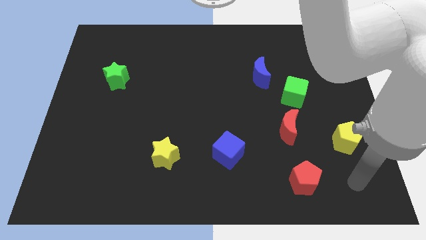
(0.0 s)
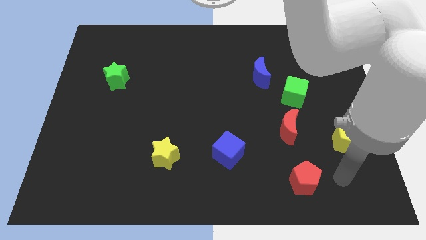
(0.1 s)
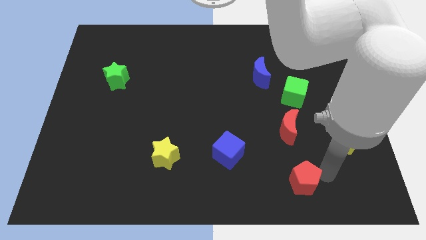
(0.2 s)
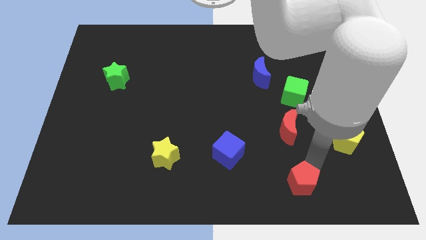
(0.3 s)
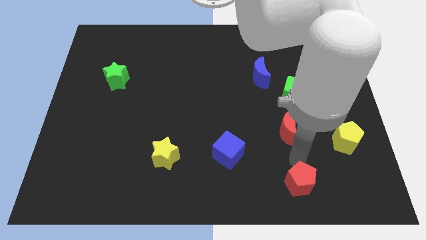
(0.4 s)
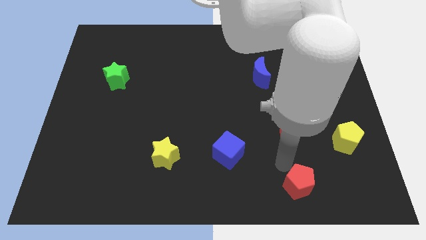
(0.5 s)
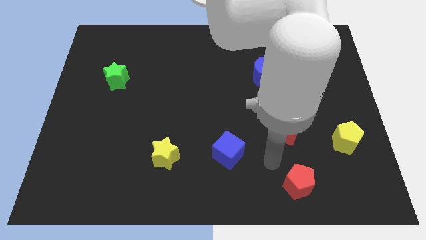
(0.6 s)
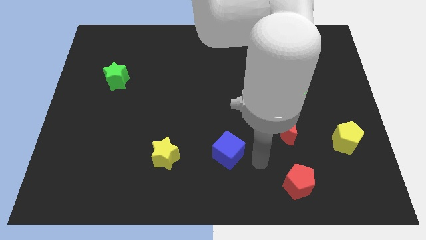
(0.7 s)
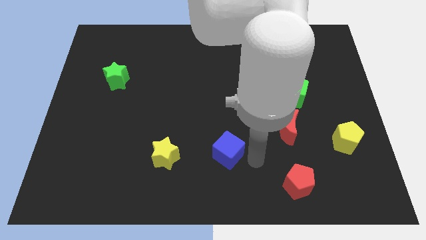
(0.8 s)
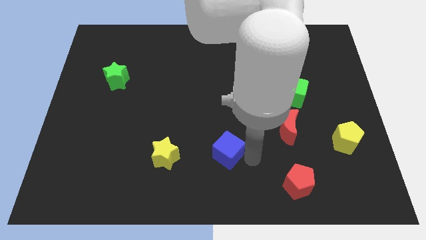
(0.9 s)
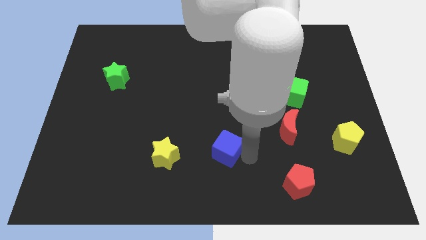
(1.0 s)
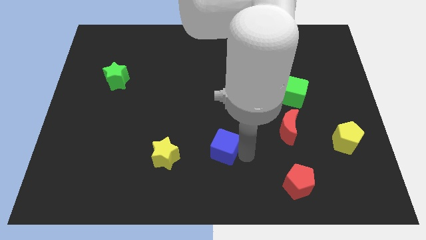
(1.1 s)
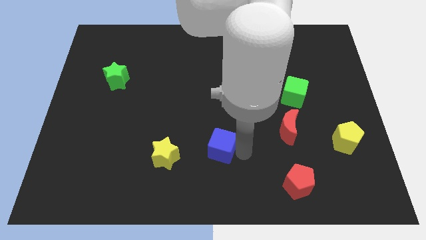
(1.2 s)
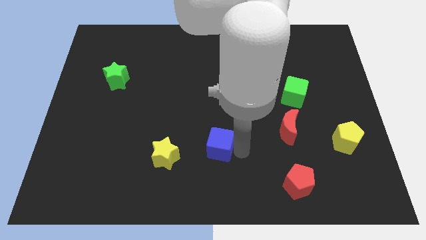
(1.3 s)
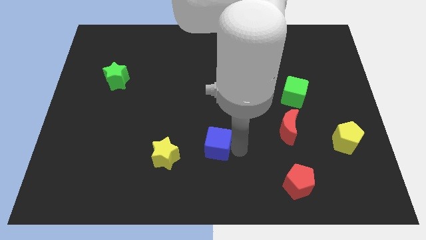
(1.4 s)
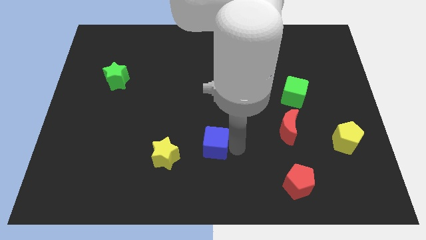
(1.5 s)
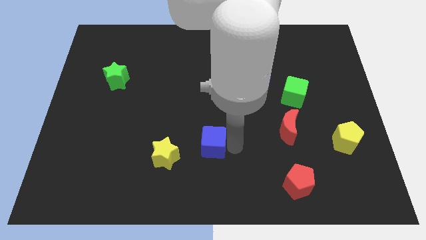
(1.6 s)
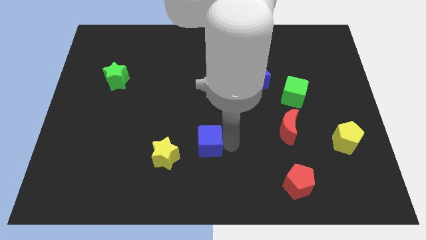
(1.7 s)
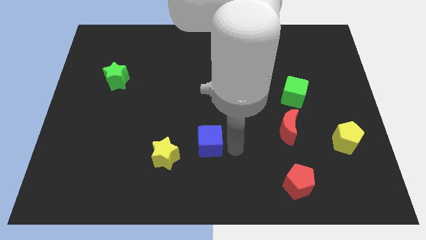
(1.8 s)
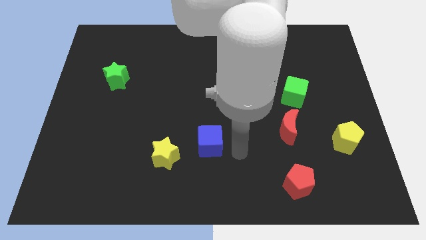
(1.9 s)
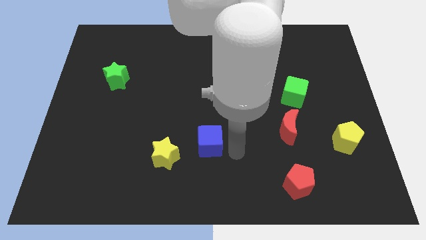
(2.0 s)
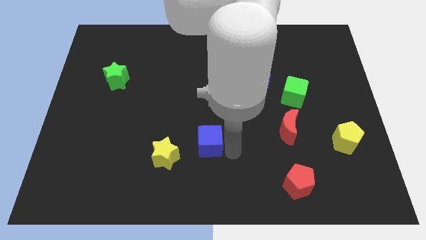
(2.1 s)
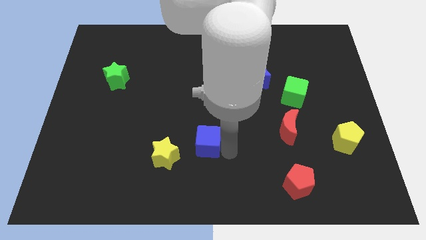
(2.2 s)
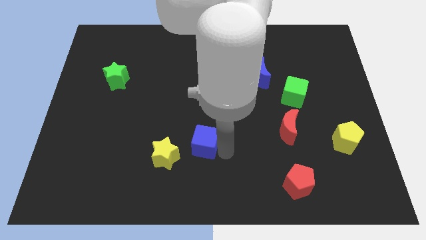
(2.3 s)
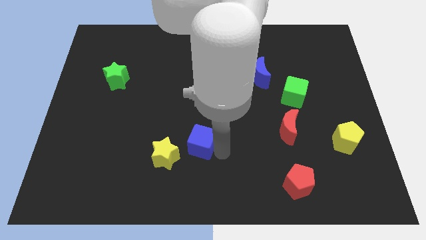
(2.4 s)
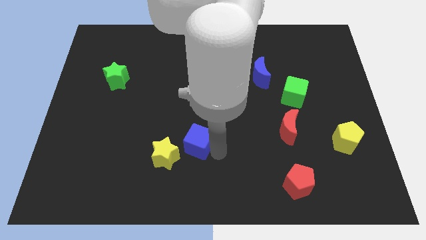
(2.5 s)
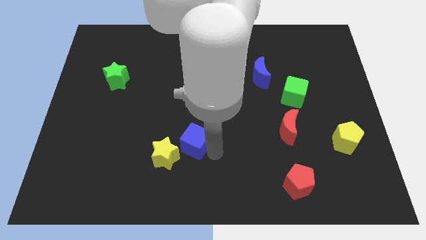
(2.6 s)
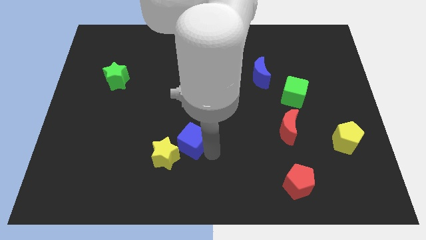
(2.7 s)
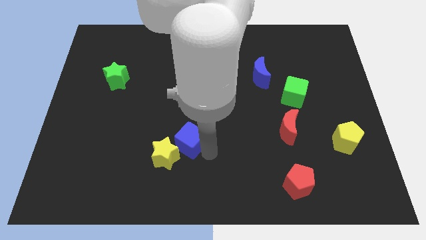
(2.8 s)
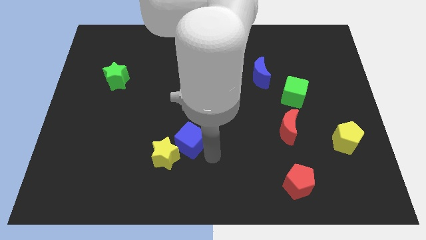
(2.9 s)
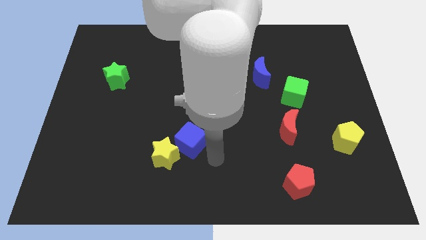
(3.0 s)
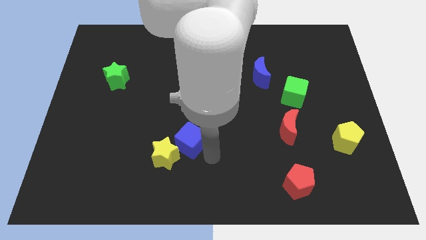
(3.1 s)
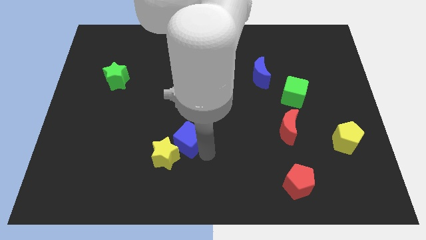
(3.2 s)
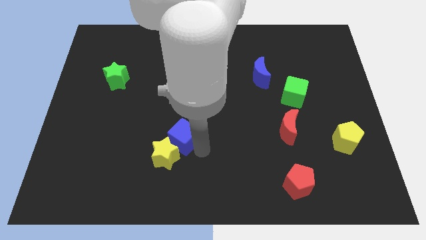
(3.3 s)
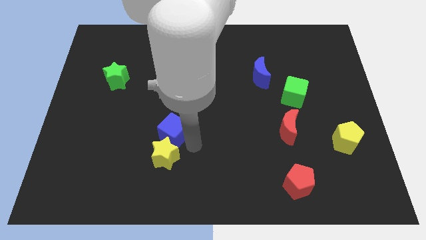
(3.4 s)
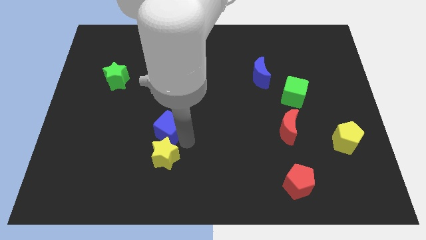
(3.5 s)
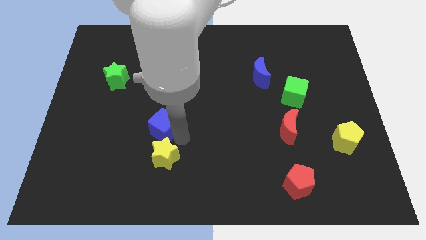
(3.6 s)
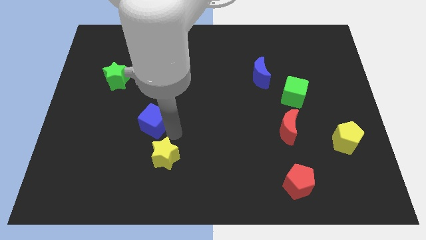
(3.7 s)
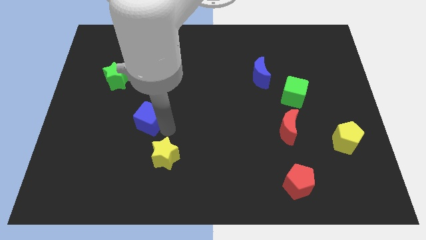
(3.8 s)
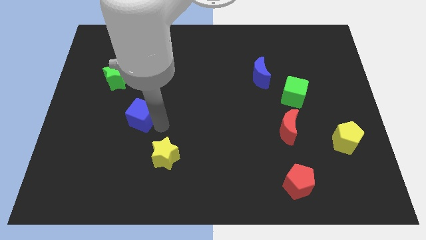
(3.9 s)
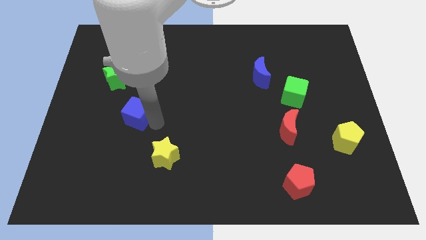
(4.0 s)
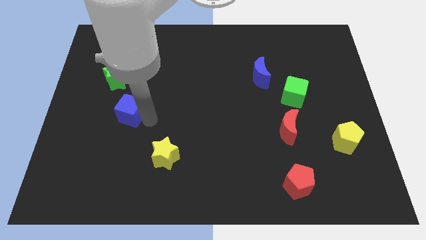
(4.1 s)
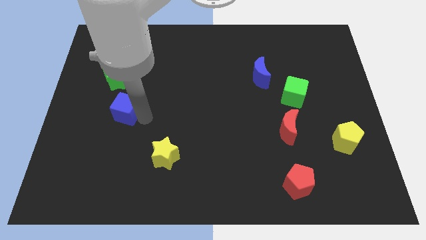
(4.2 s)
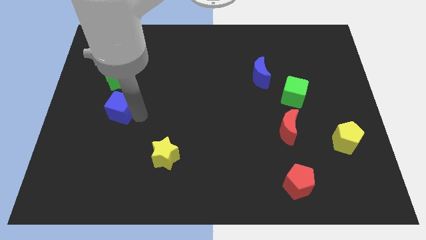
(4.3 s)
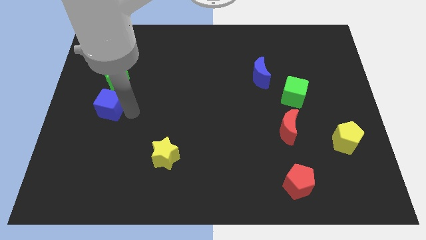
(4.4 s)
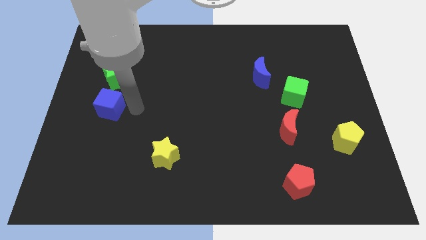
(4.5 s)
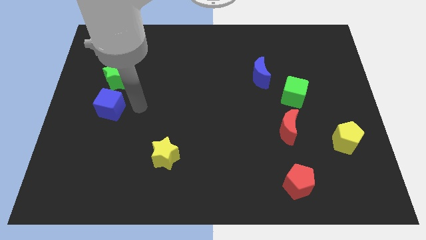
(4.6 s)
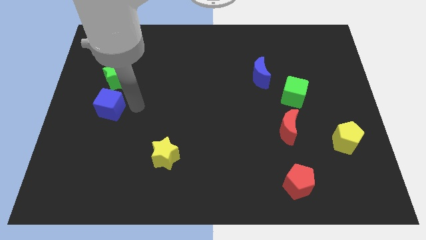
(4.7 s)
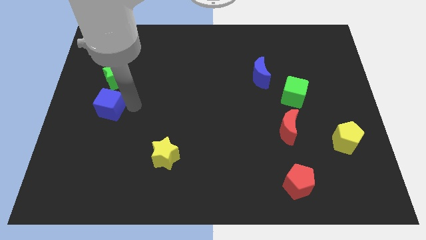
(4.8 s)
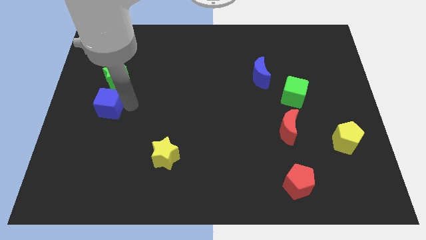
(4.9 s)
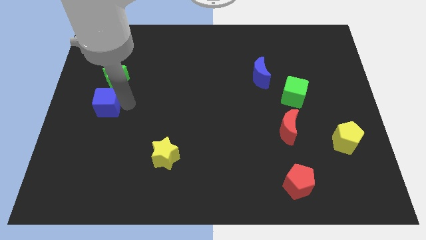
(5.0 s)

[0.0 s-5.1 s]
move the blue cube to the left side

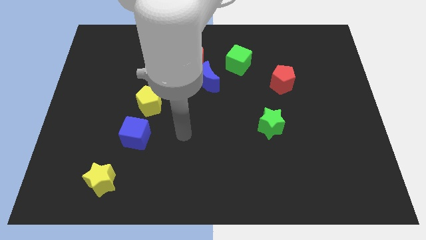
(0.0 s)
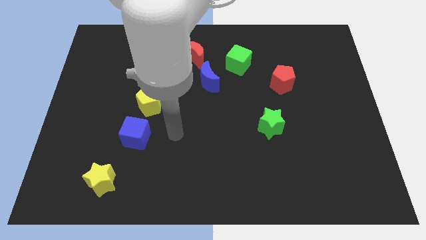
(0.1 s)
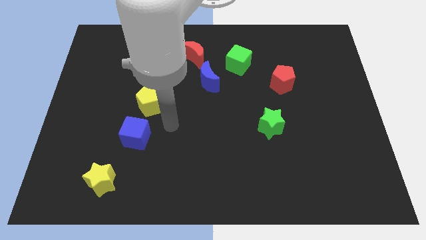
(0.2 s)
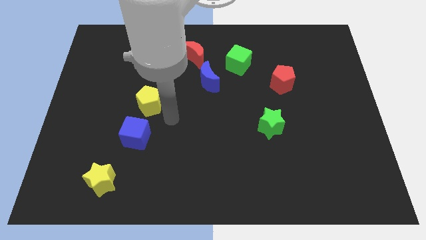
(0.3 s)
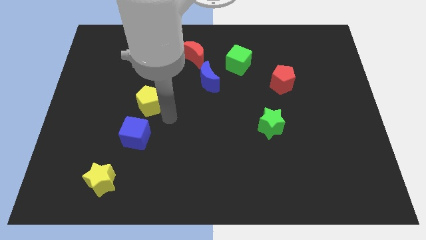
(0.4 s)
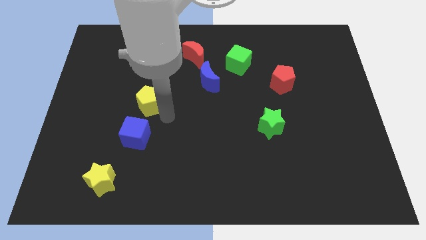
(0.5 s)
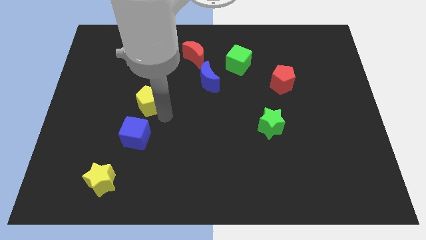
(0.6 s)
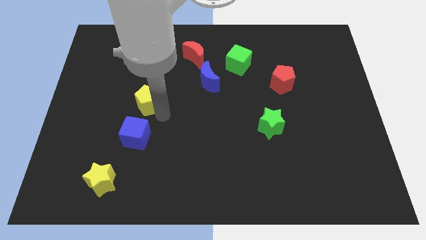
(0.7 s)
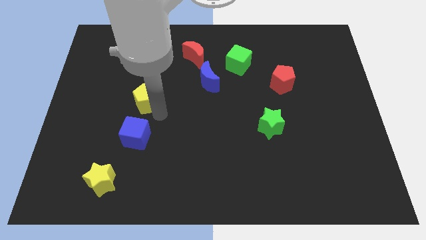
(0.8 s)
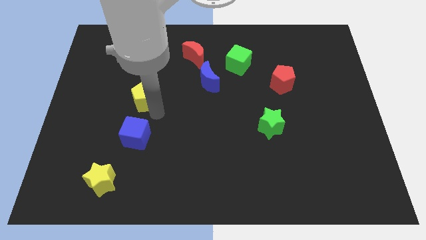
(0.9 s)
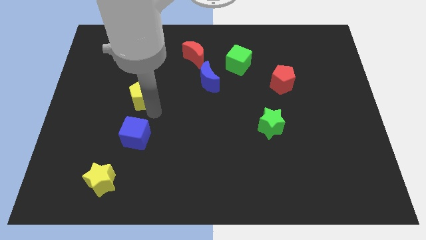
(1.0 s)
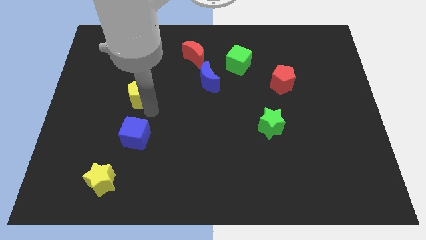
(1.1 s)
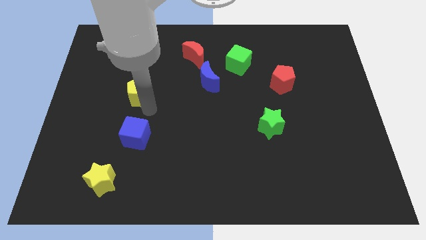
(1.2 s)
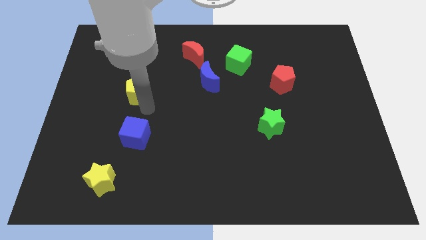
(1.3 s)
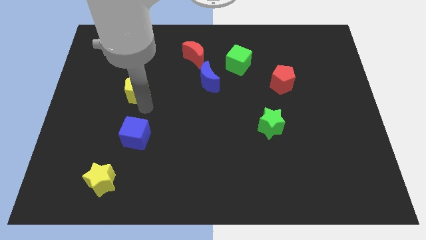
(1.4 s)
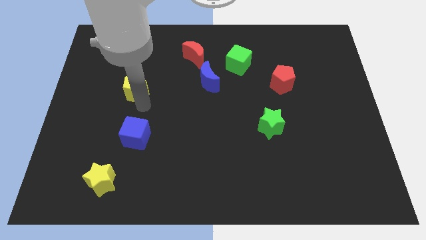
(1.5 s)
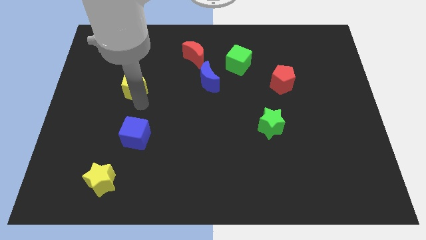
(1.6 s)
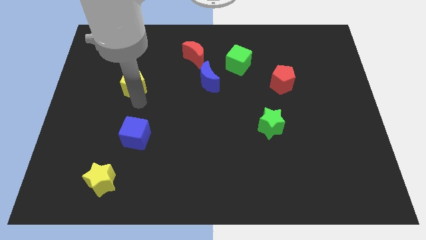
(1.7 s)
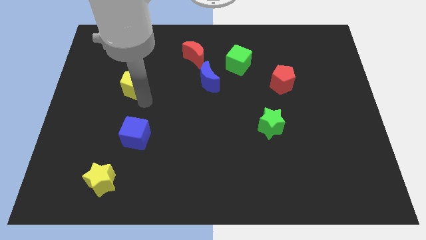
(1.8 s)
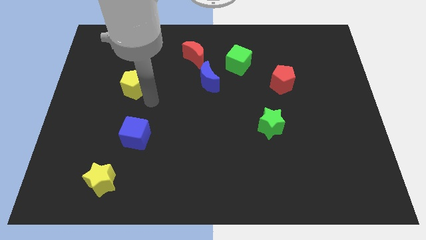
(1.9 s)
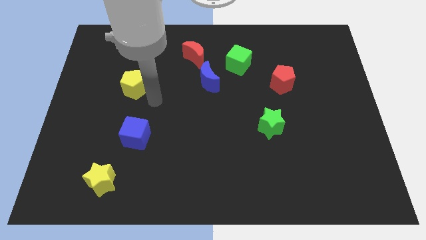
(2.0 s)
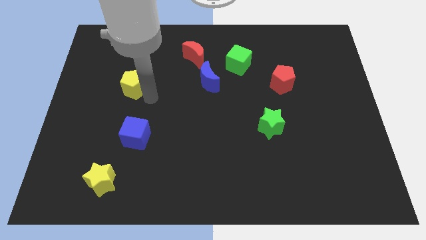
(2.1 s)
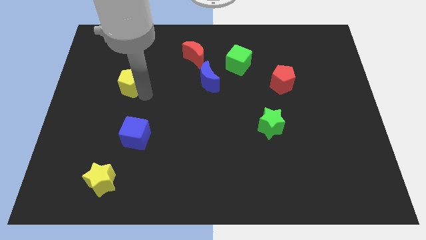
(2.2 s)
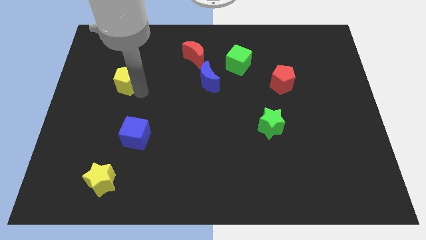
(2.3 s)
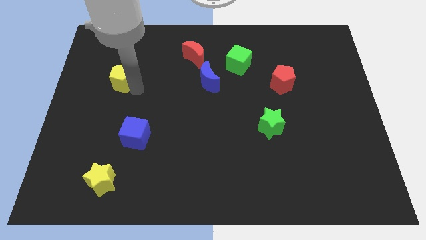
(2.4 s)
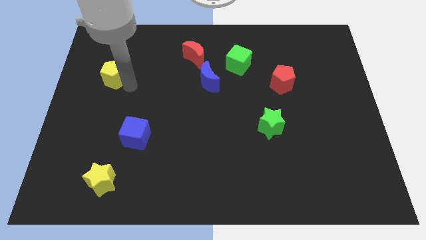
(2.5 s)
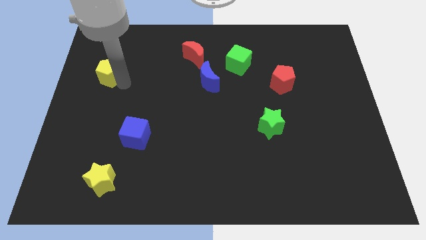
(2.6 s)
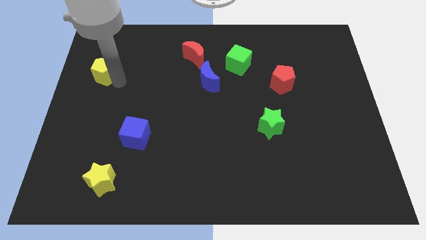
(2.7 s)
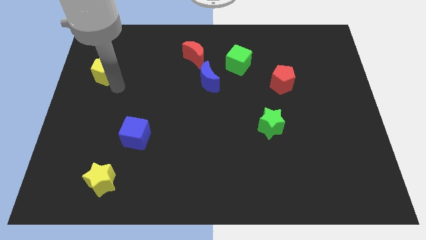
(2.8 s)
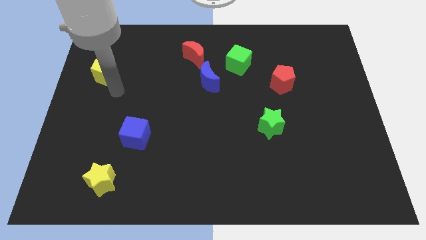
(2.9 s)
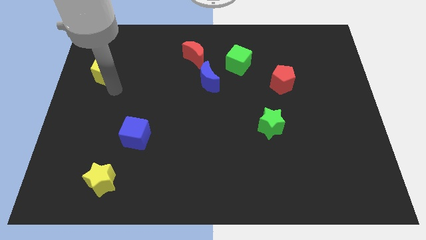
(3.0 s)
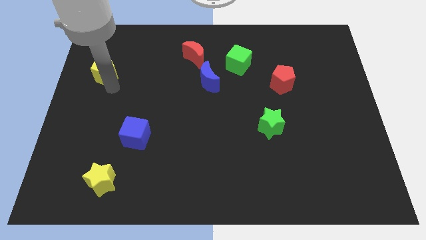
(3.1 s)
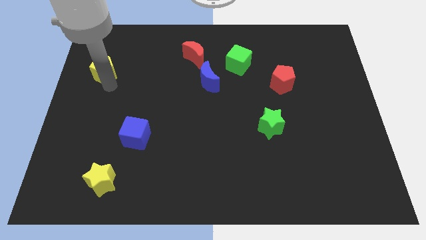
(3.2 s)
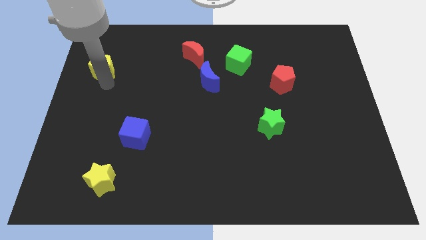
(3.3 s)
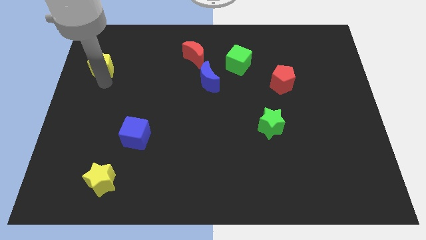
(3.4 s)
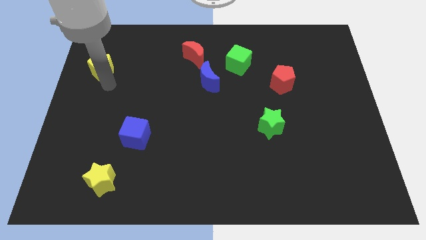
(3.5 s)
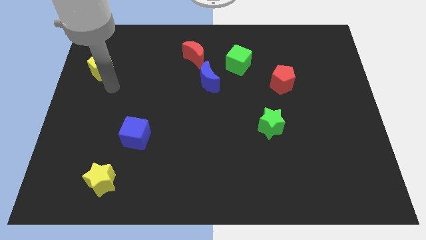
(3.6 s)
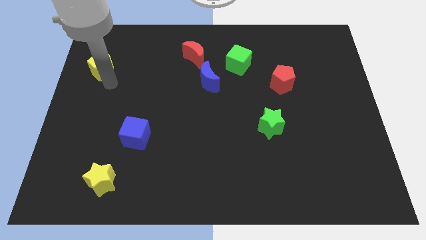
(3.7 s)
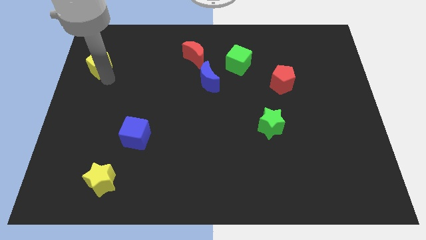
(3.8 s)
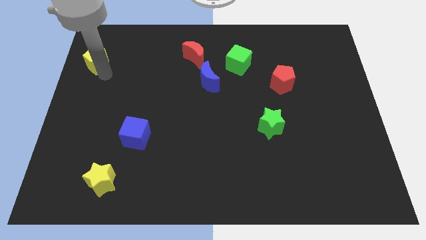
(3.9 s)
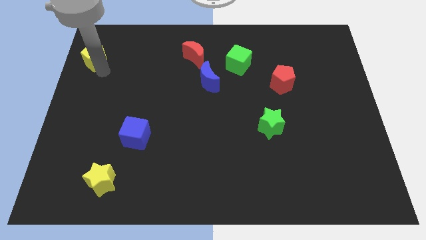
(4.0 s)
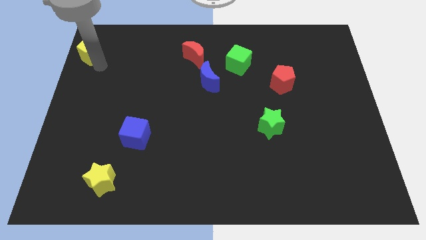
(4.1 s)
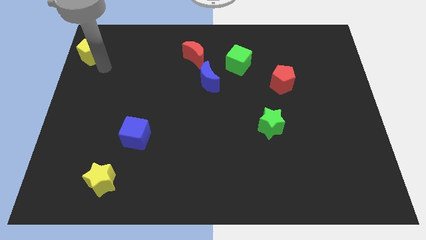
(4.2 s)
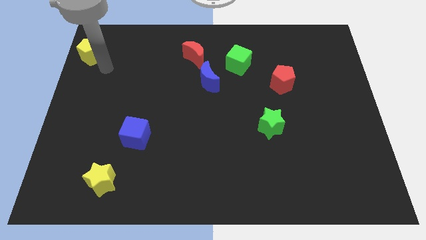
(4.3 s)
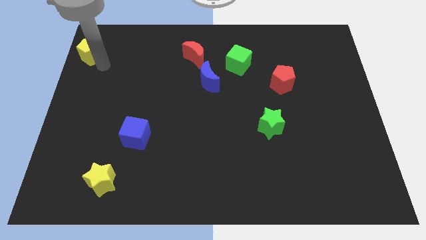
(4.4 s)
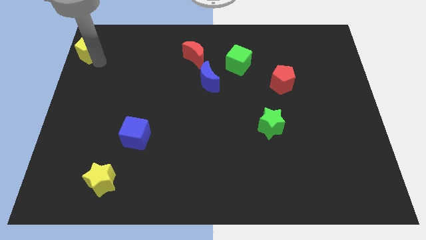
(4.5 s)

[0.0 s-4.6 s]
put the yellow pentagon to the top left
